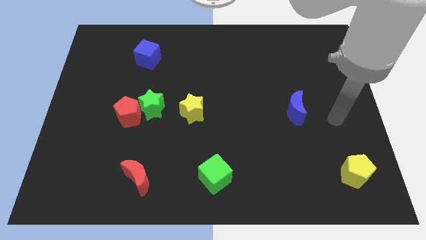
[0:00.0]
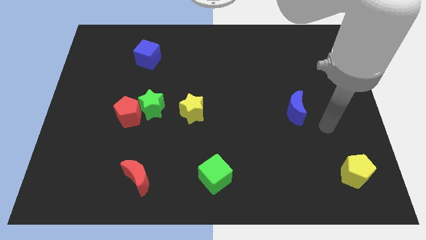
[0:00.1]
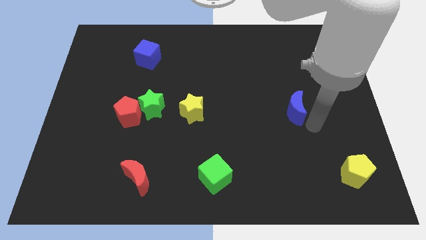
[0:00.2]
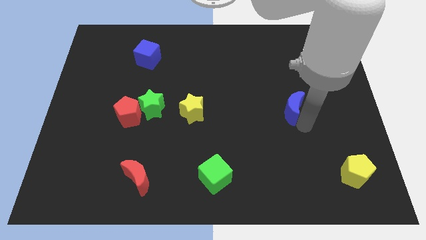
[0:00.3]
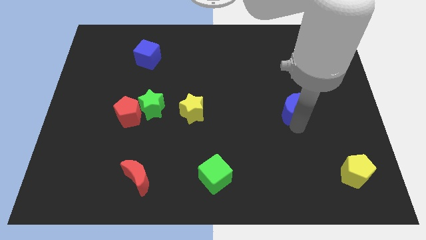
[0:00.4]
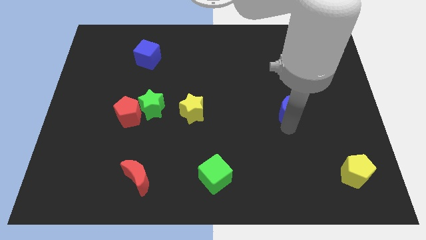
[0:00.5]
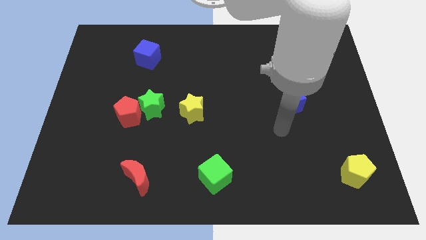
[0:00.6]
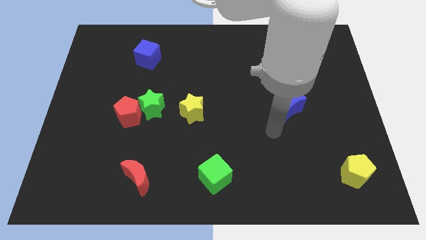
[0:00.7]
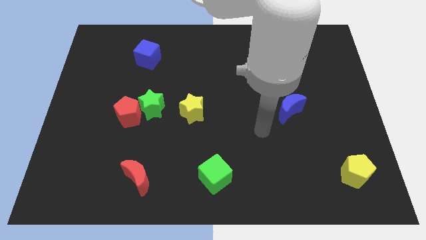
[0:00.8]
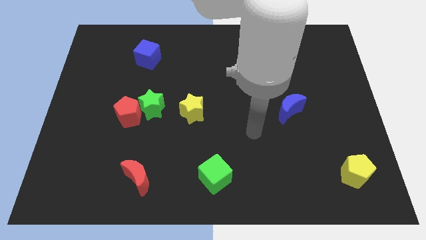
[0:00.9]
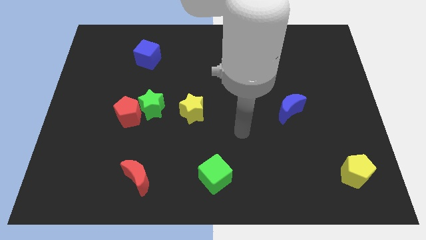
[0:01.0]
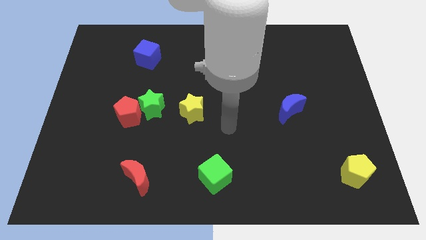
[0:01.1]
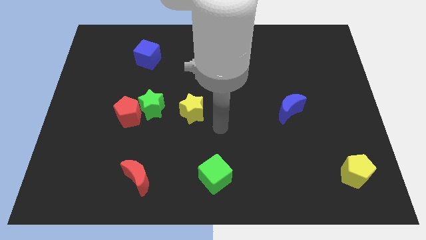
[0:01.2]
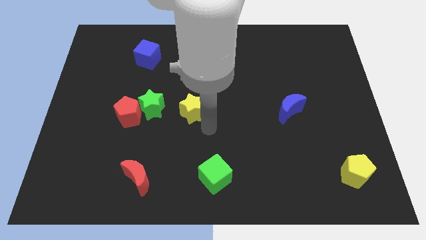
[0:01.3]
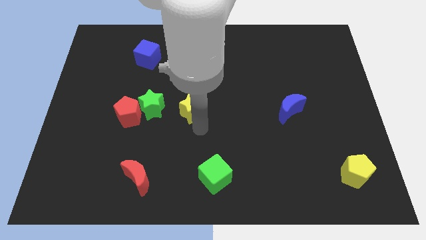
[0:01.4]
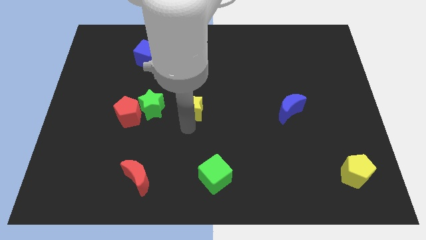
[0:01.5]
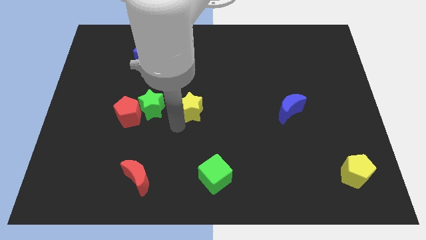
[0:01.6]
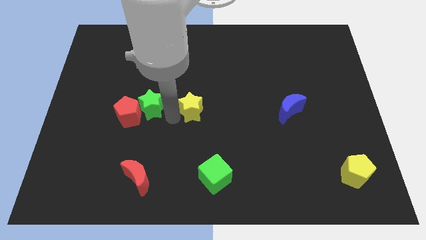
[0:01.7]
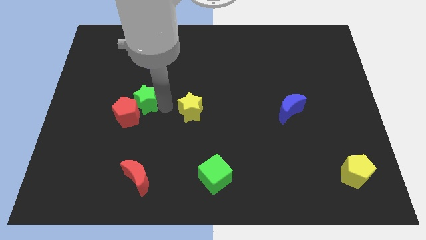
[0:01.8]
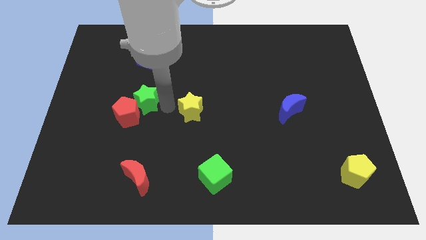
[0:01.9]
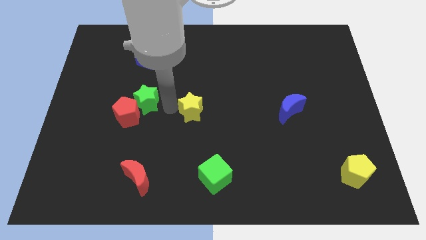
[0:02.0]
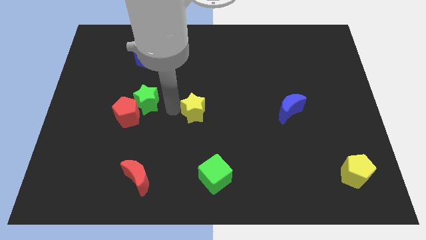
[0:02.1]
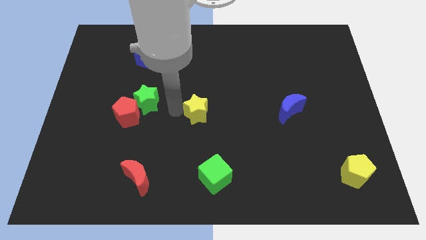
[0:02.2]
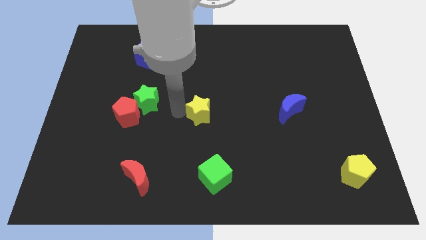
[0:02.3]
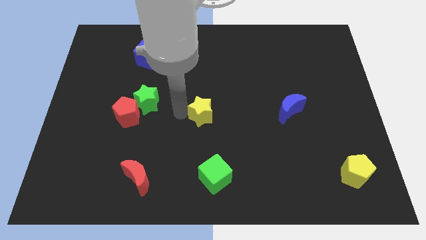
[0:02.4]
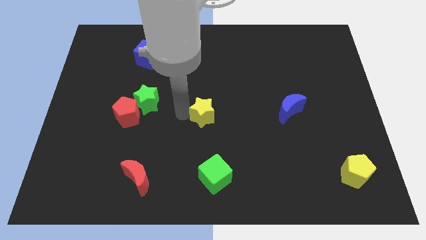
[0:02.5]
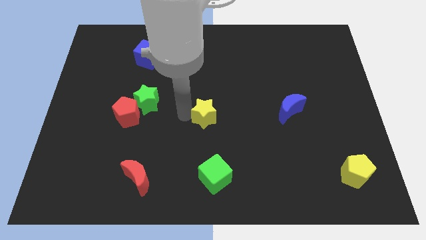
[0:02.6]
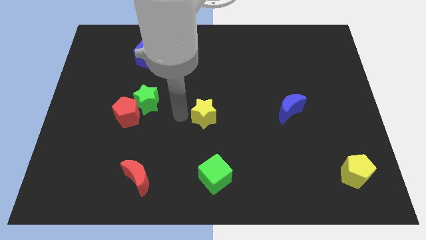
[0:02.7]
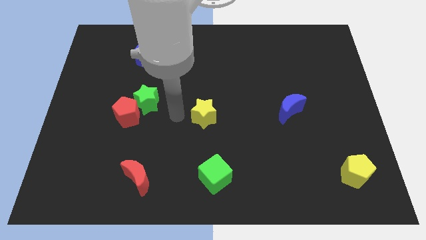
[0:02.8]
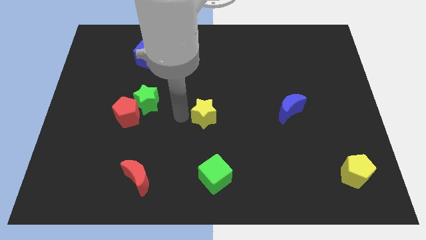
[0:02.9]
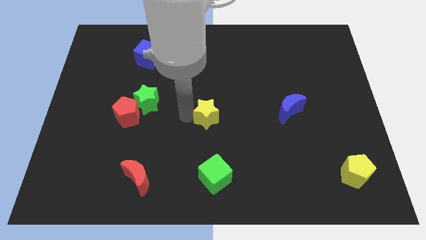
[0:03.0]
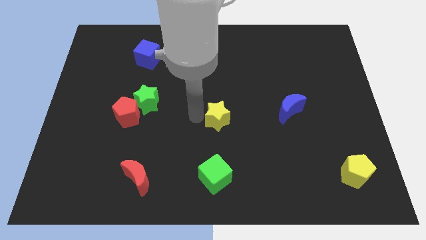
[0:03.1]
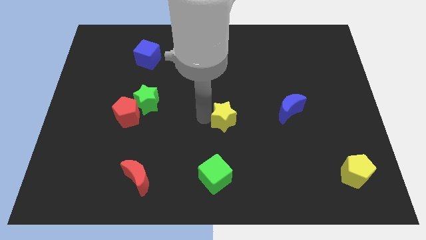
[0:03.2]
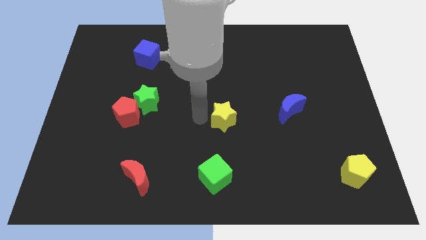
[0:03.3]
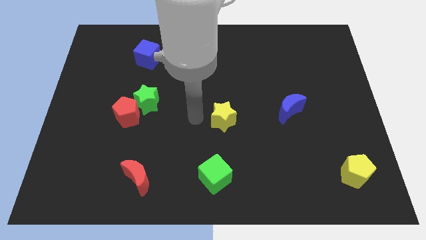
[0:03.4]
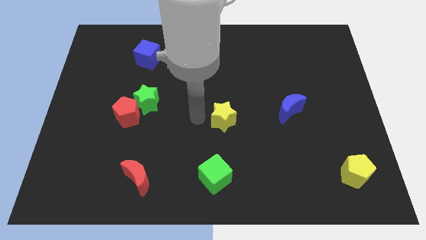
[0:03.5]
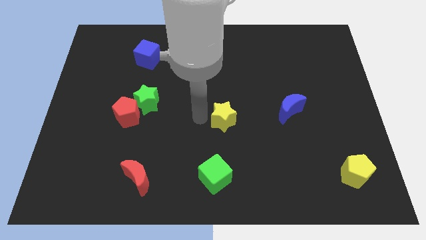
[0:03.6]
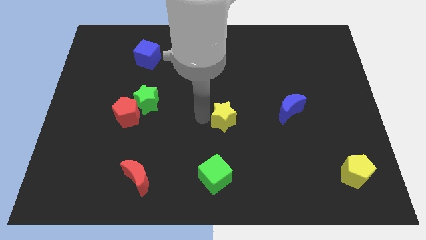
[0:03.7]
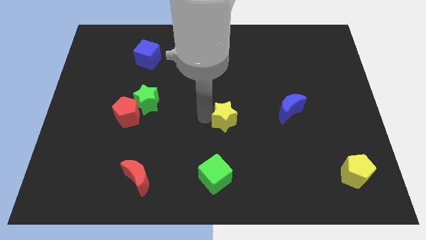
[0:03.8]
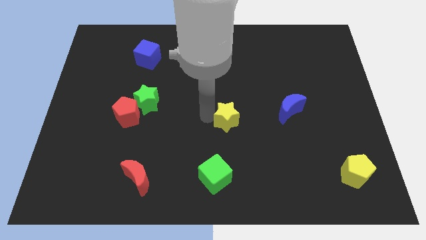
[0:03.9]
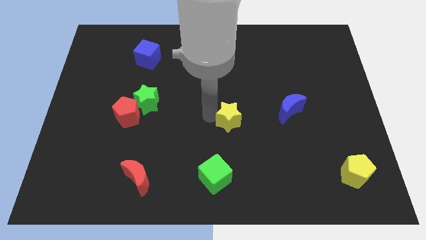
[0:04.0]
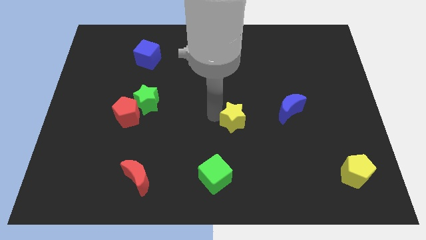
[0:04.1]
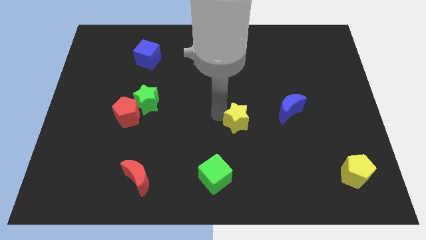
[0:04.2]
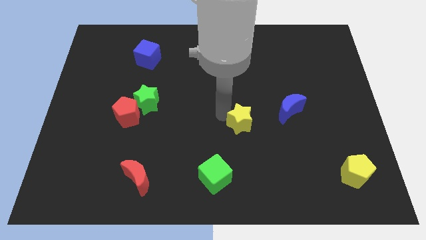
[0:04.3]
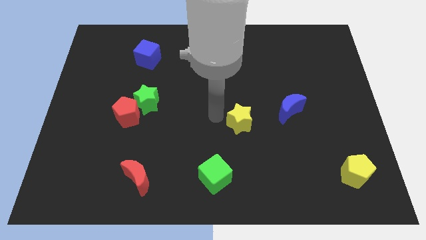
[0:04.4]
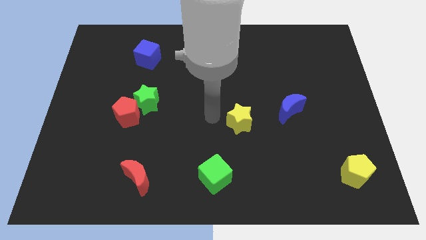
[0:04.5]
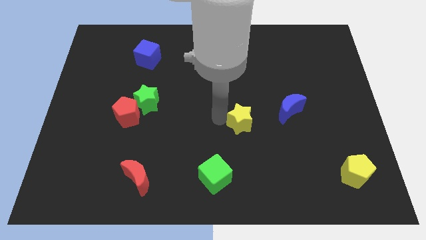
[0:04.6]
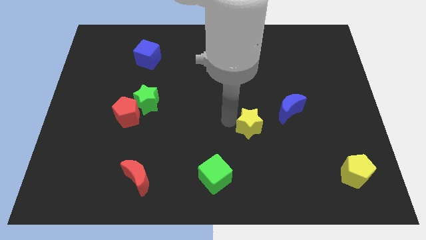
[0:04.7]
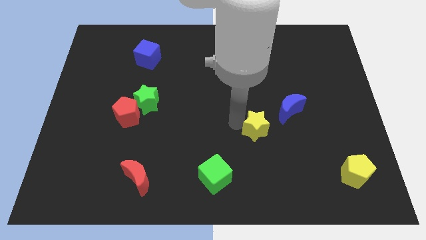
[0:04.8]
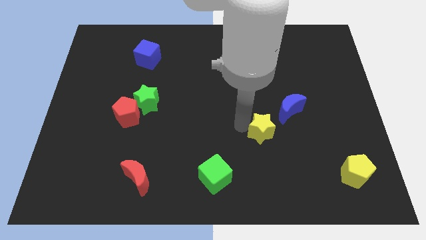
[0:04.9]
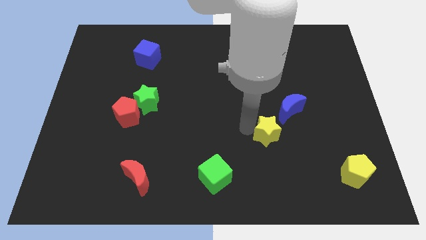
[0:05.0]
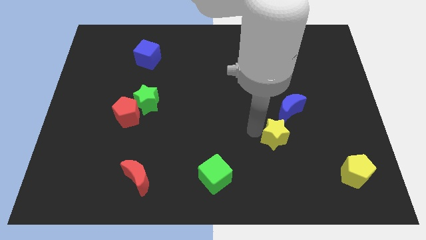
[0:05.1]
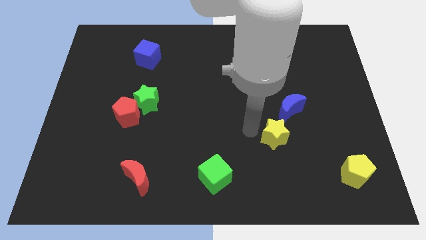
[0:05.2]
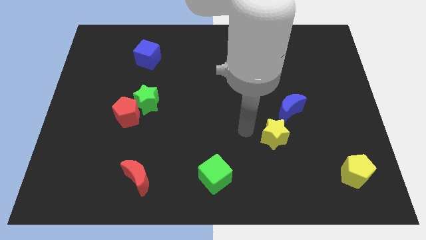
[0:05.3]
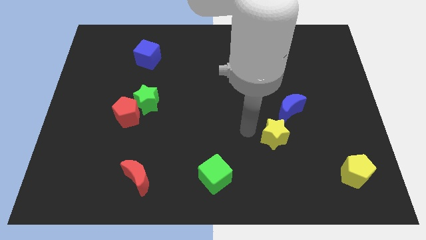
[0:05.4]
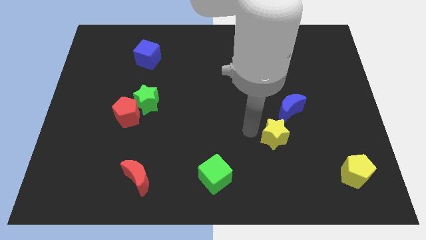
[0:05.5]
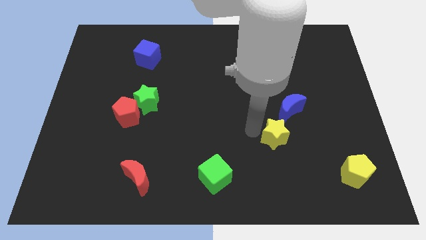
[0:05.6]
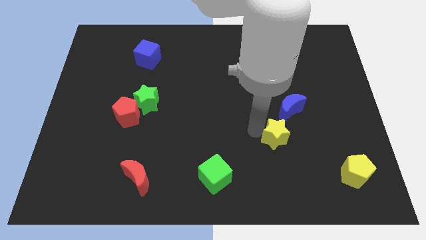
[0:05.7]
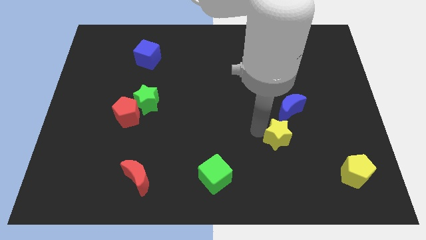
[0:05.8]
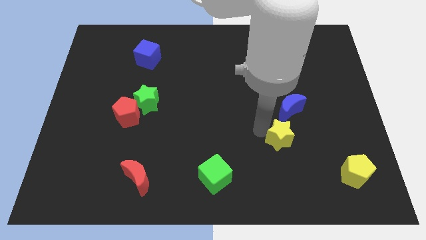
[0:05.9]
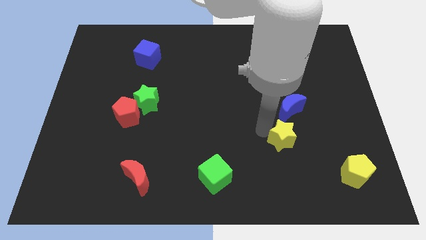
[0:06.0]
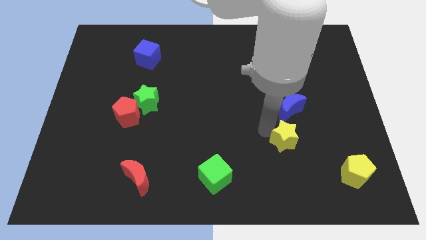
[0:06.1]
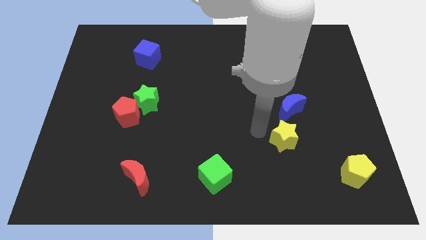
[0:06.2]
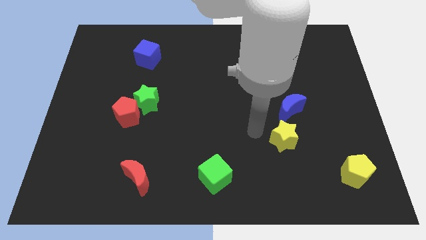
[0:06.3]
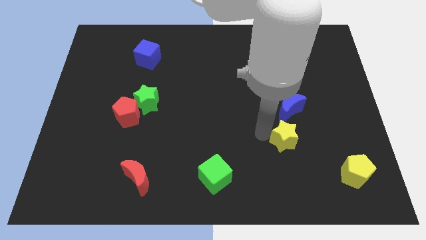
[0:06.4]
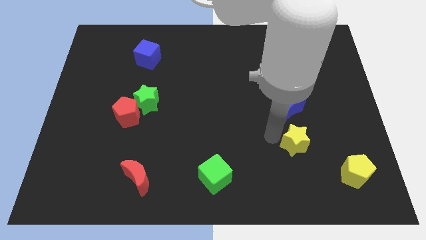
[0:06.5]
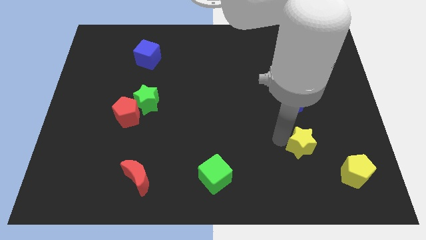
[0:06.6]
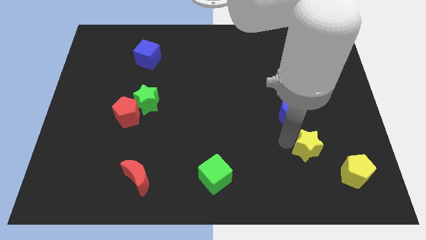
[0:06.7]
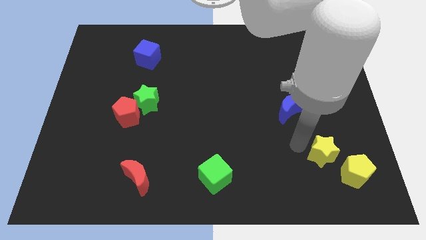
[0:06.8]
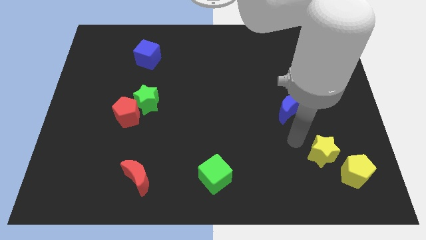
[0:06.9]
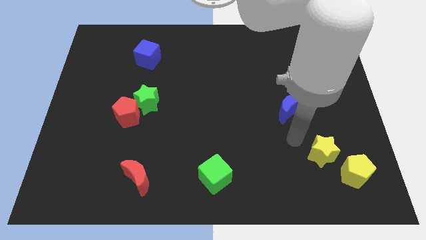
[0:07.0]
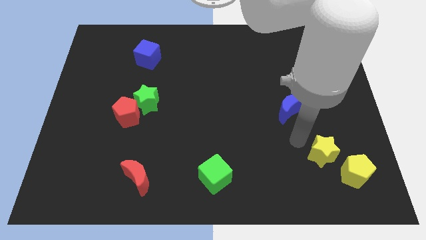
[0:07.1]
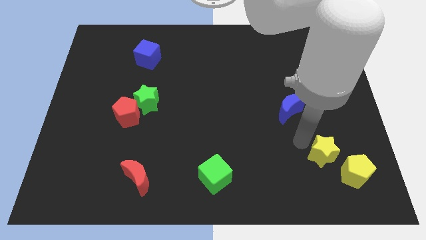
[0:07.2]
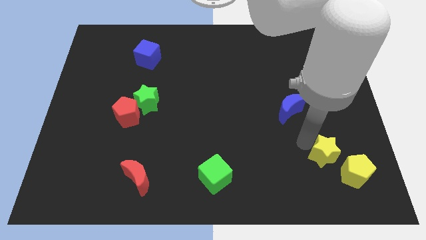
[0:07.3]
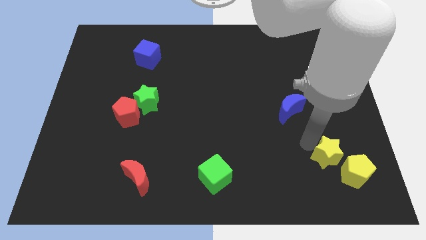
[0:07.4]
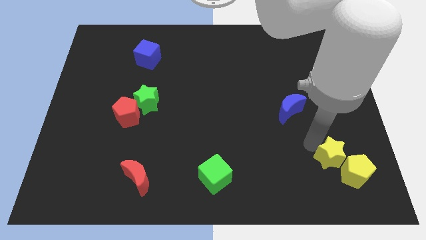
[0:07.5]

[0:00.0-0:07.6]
move the yellow star close to the yellow pentagon
